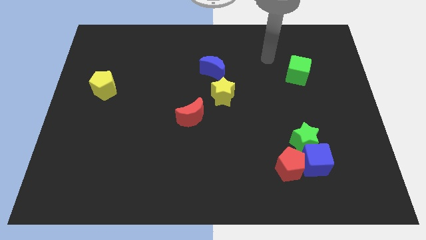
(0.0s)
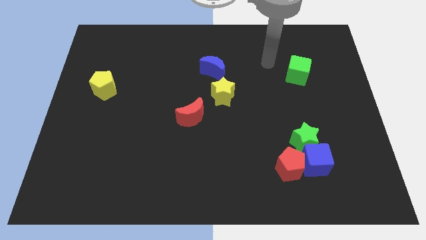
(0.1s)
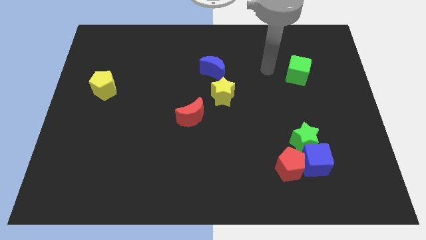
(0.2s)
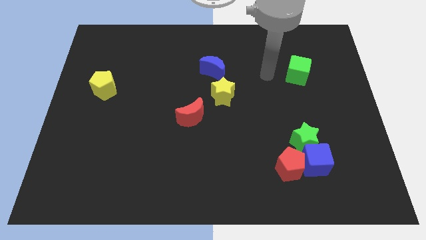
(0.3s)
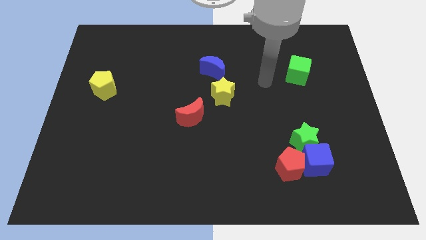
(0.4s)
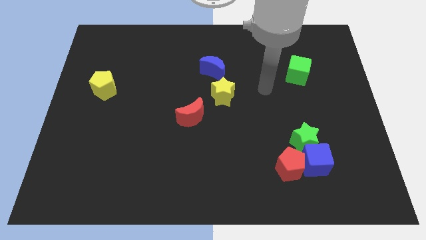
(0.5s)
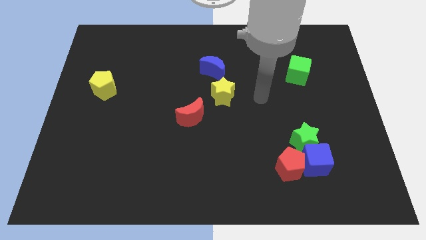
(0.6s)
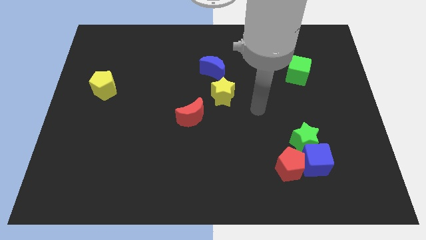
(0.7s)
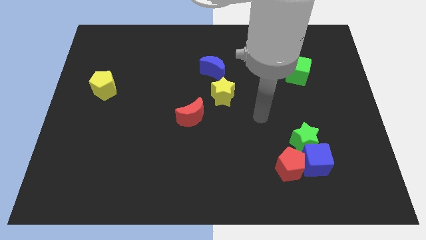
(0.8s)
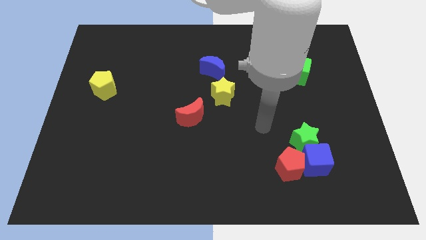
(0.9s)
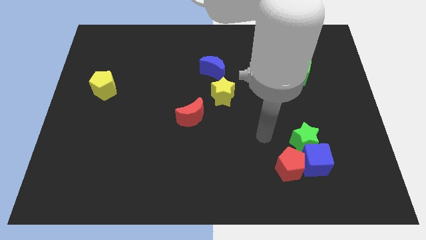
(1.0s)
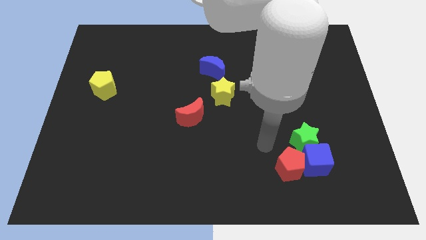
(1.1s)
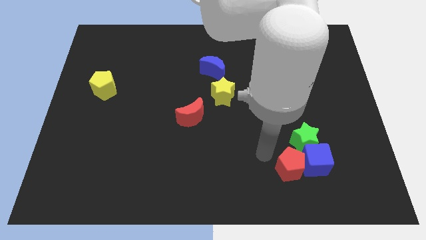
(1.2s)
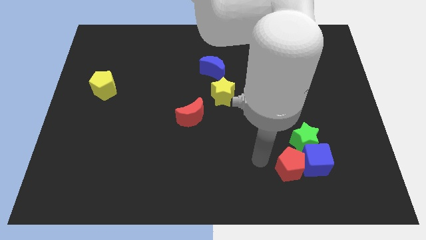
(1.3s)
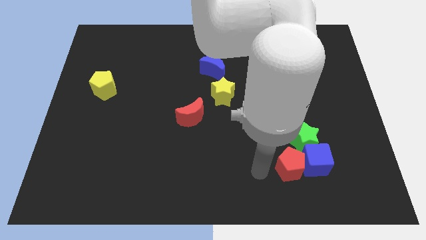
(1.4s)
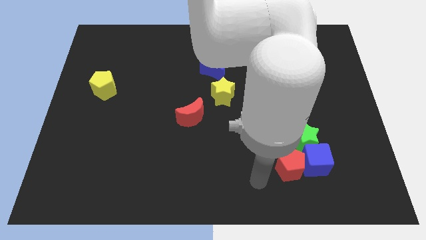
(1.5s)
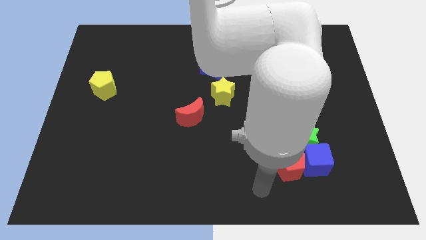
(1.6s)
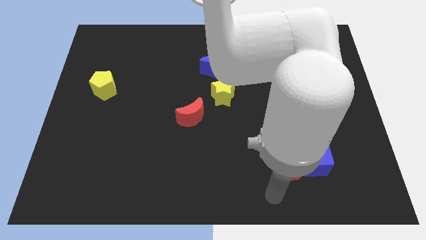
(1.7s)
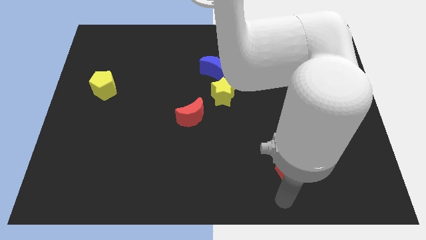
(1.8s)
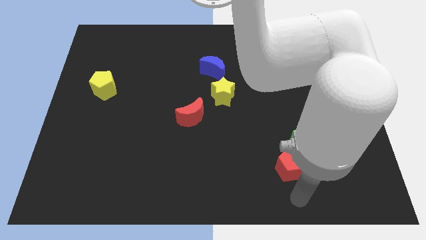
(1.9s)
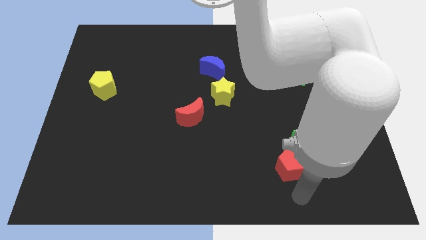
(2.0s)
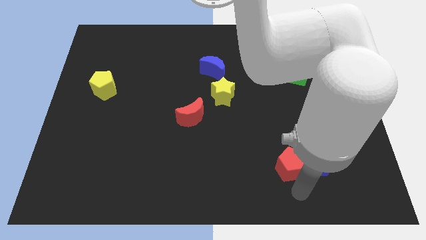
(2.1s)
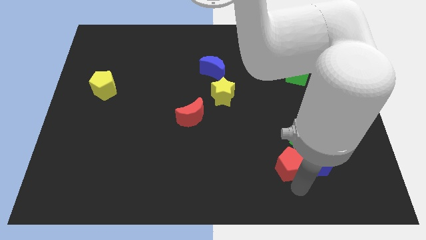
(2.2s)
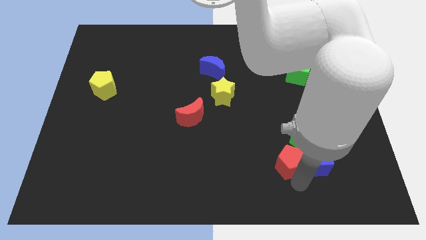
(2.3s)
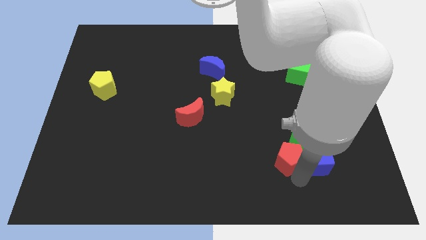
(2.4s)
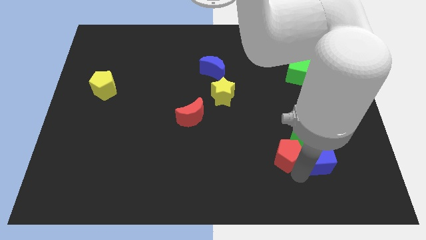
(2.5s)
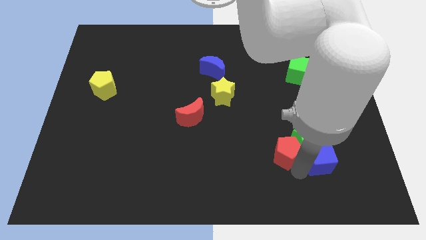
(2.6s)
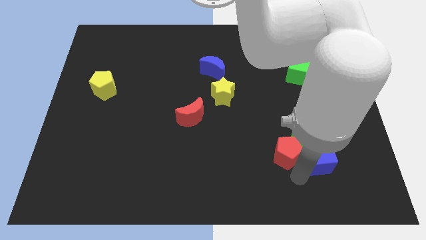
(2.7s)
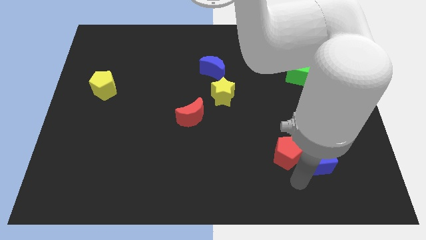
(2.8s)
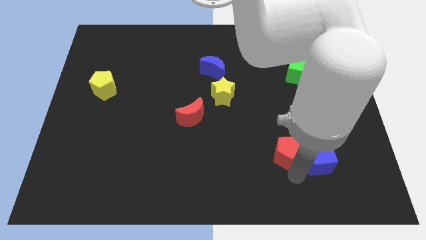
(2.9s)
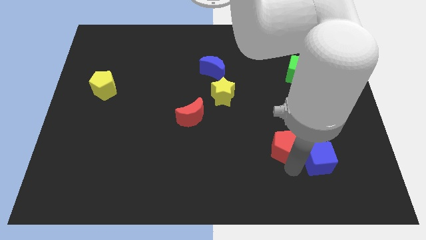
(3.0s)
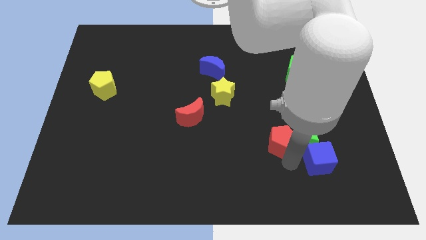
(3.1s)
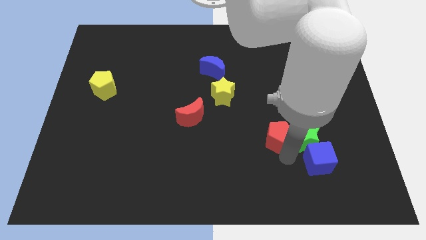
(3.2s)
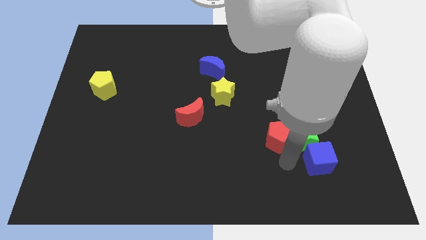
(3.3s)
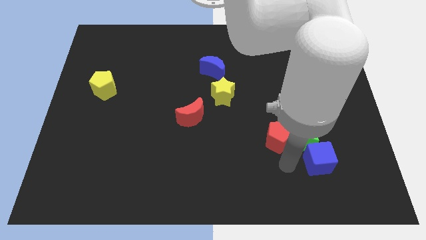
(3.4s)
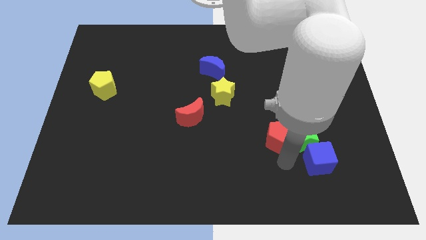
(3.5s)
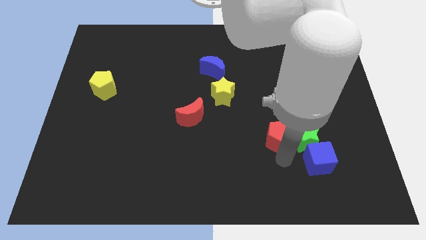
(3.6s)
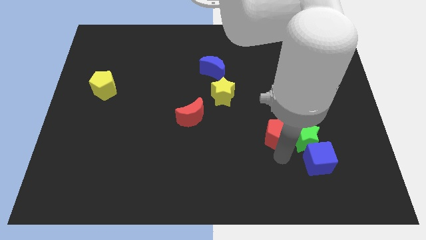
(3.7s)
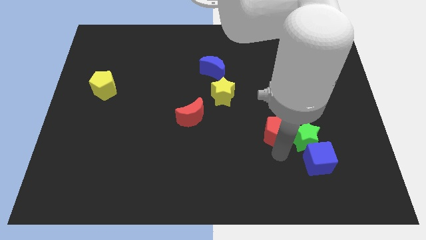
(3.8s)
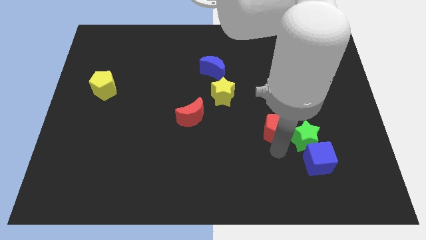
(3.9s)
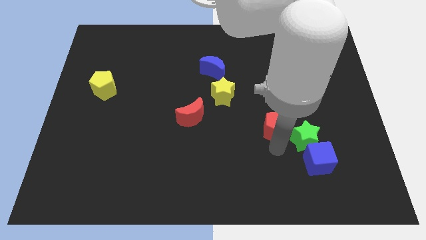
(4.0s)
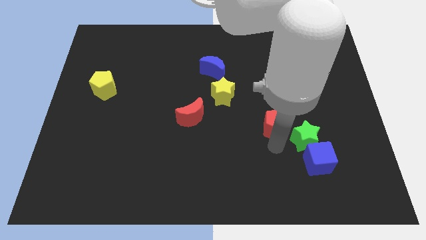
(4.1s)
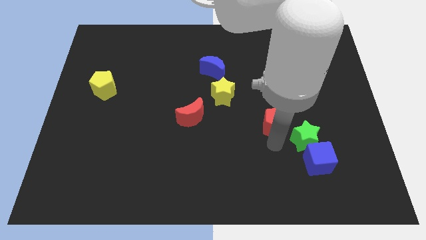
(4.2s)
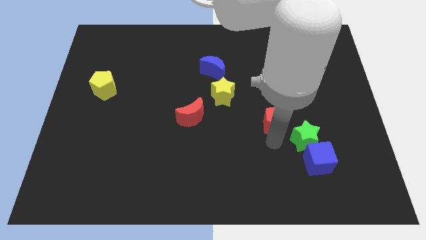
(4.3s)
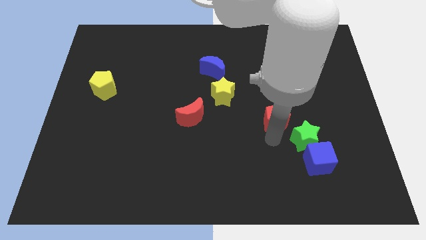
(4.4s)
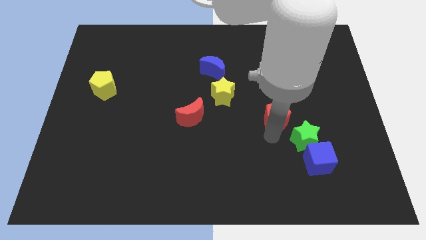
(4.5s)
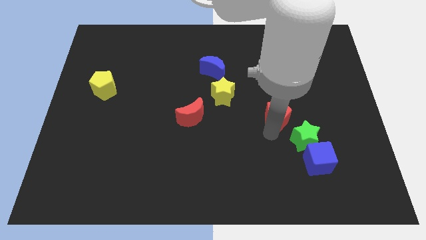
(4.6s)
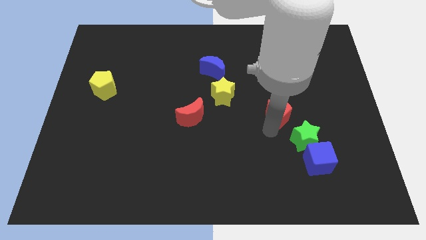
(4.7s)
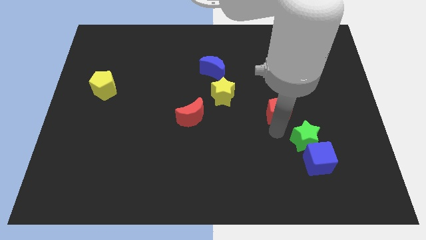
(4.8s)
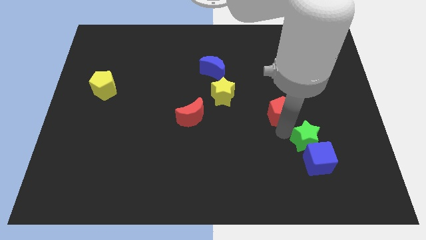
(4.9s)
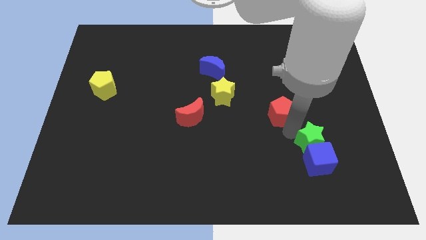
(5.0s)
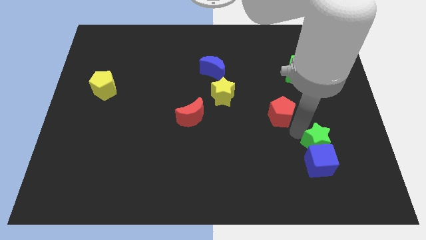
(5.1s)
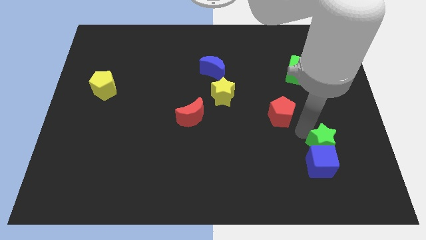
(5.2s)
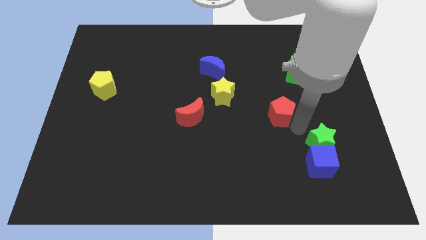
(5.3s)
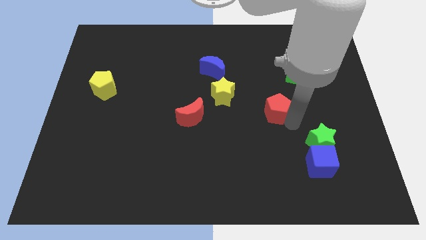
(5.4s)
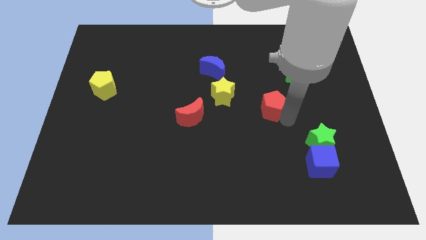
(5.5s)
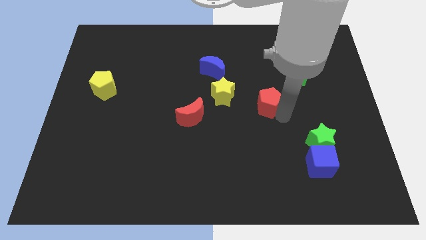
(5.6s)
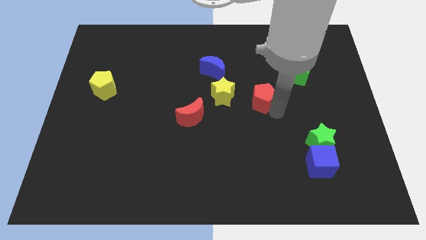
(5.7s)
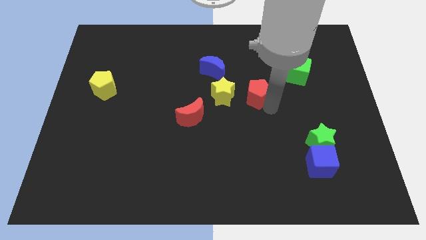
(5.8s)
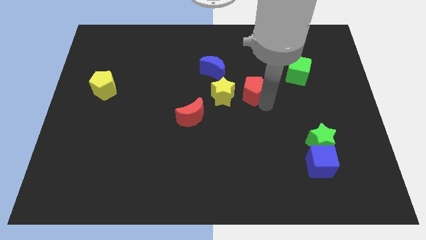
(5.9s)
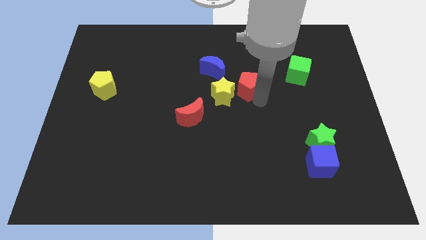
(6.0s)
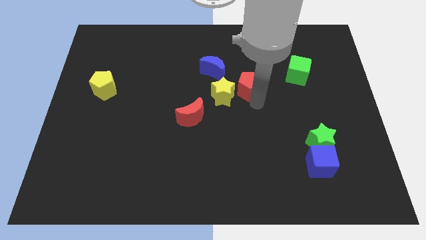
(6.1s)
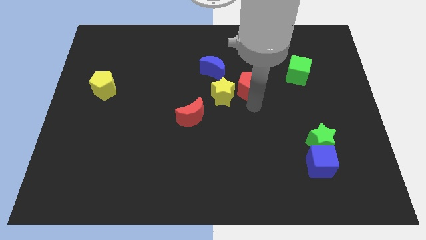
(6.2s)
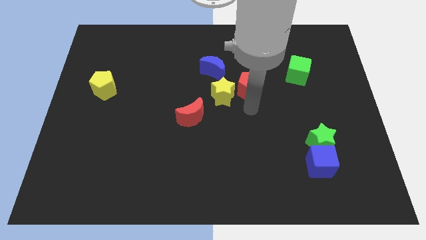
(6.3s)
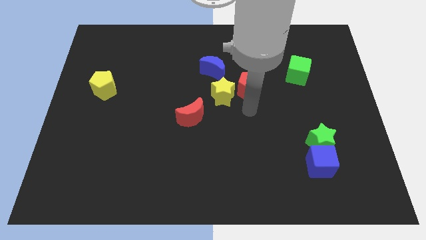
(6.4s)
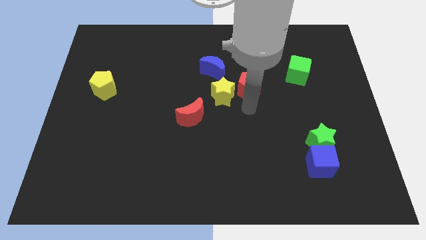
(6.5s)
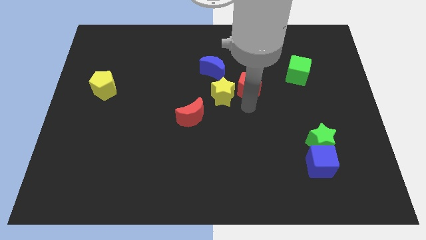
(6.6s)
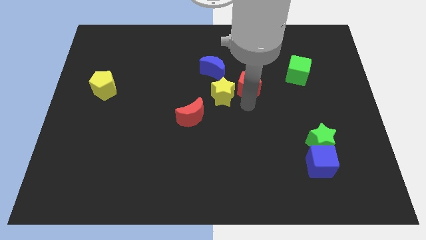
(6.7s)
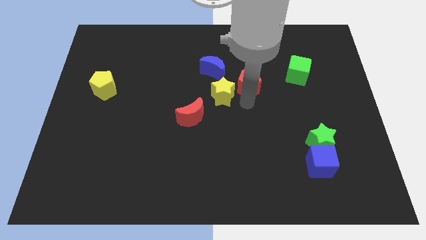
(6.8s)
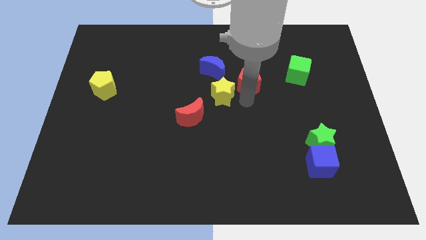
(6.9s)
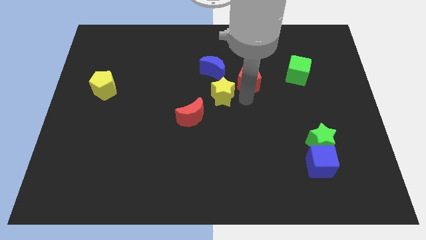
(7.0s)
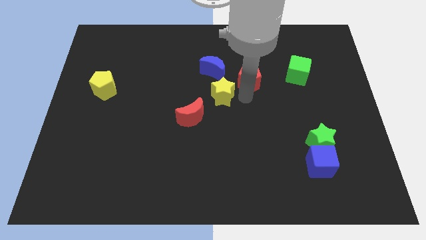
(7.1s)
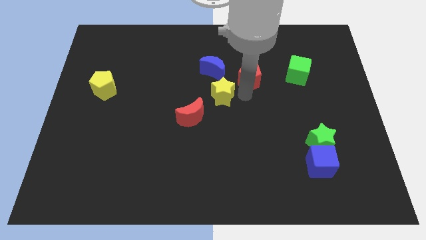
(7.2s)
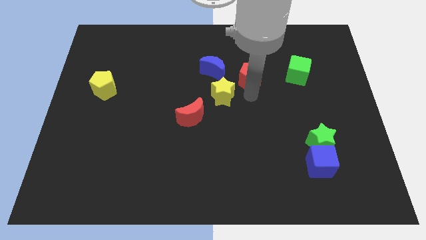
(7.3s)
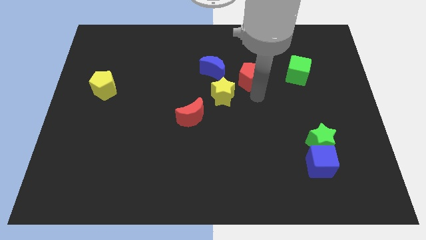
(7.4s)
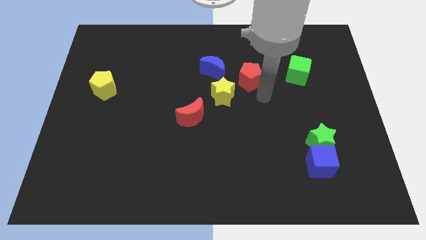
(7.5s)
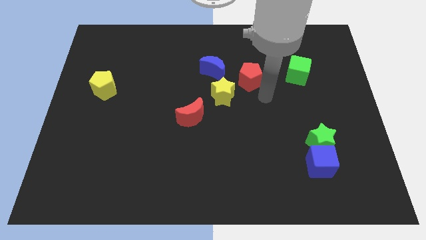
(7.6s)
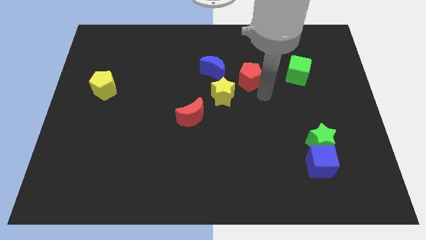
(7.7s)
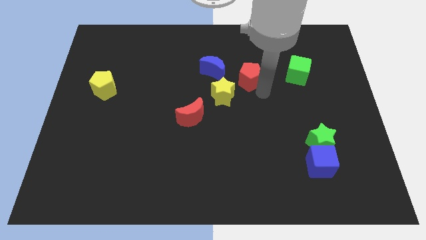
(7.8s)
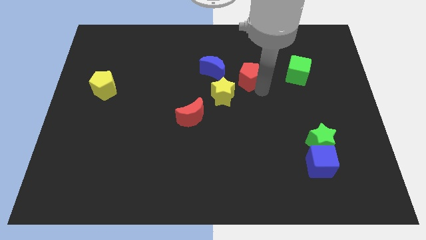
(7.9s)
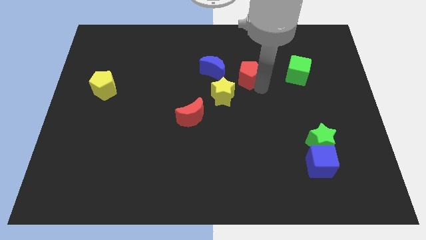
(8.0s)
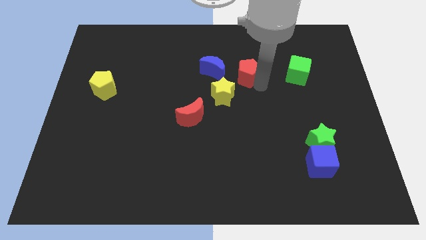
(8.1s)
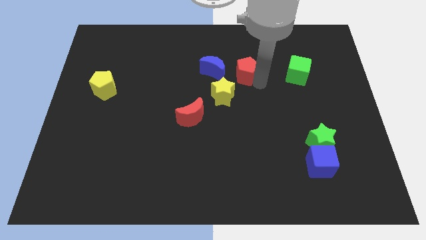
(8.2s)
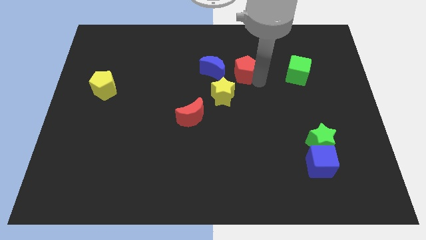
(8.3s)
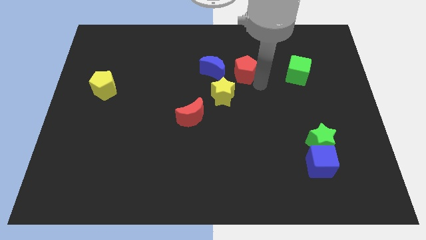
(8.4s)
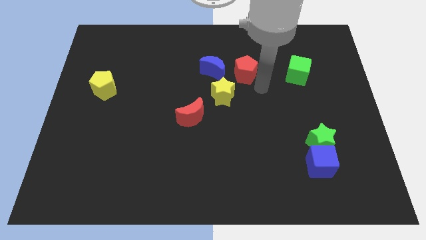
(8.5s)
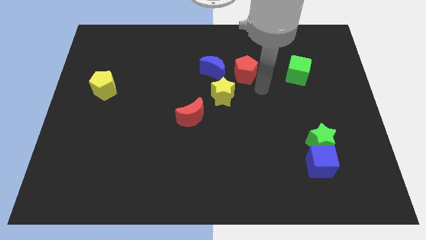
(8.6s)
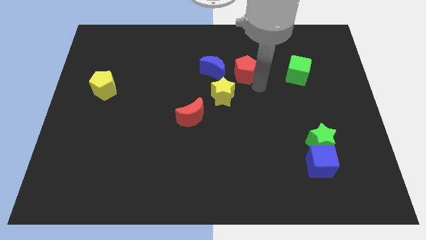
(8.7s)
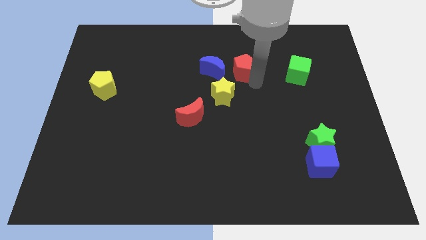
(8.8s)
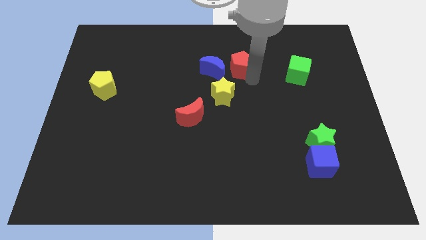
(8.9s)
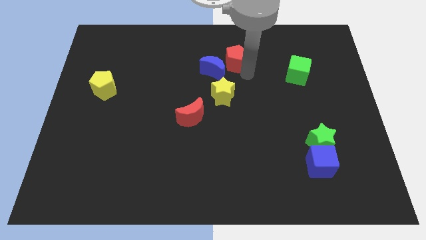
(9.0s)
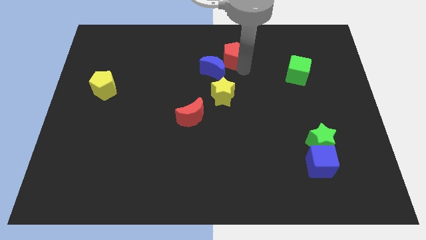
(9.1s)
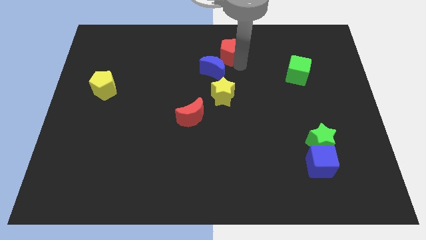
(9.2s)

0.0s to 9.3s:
move the red pentagon to the top
